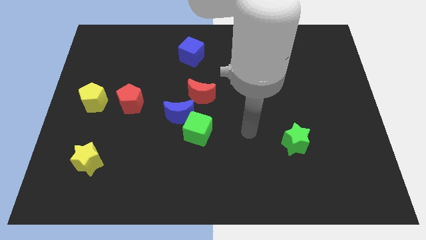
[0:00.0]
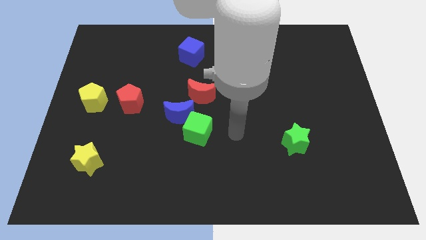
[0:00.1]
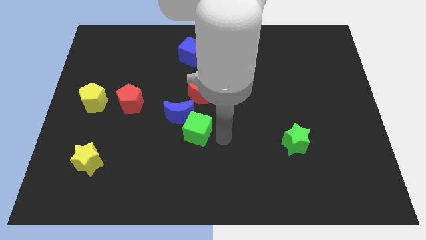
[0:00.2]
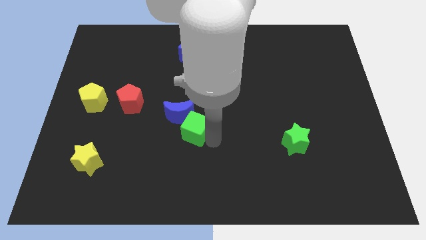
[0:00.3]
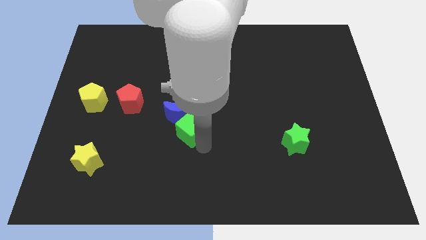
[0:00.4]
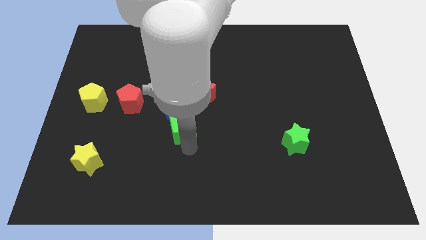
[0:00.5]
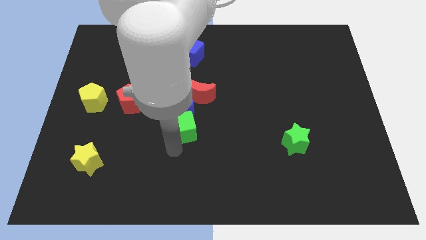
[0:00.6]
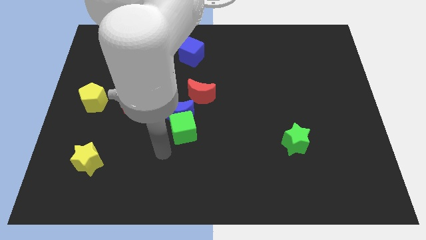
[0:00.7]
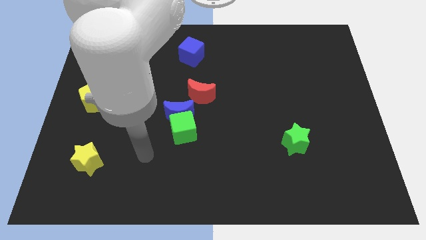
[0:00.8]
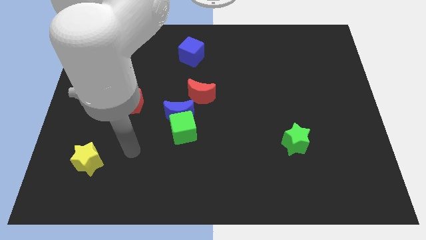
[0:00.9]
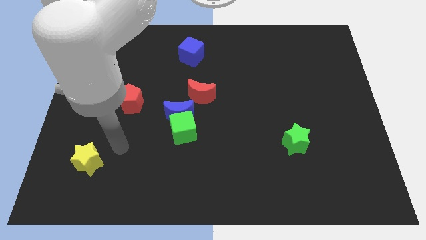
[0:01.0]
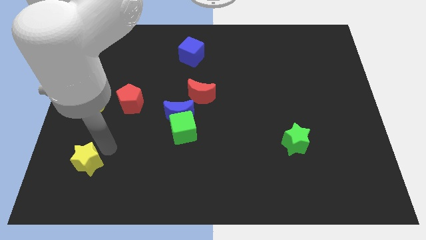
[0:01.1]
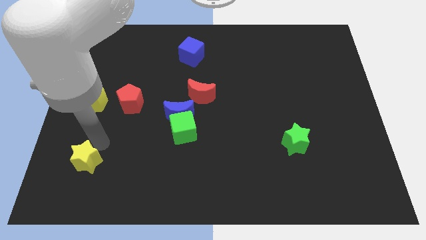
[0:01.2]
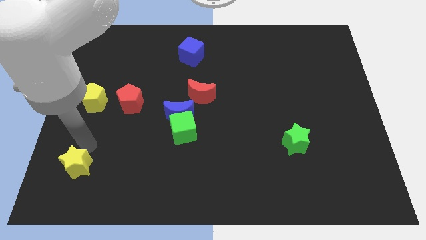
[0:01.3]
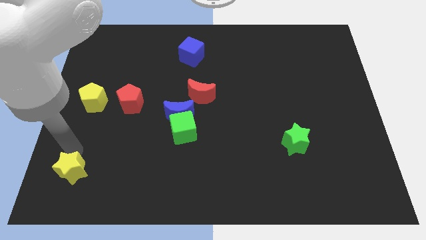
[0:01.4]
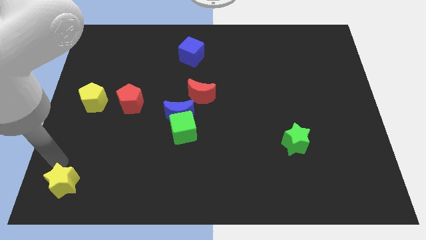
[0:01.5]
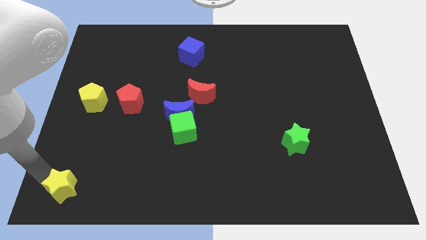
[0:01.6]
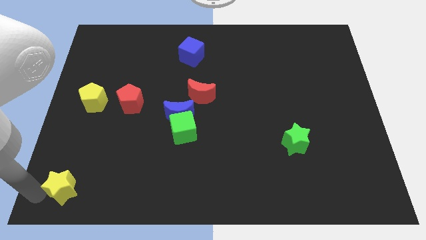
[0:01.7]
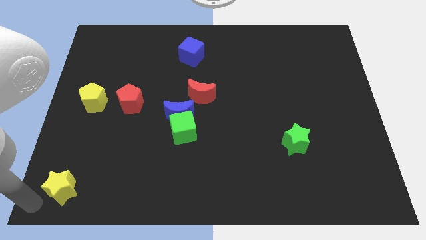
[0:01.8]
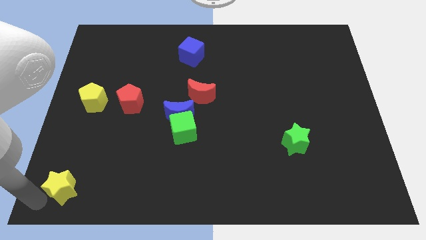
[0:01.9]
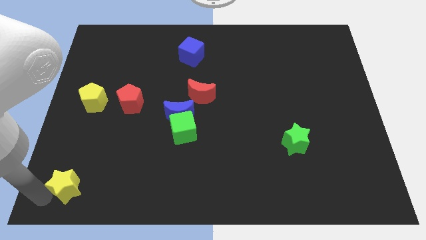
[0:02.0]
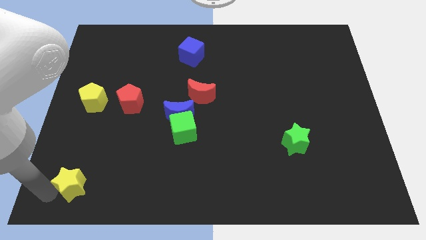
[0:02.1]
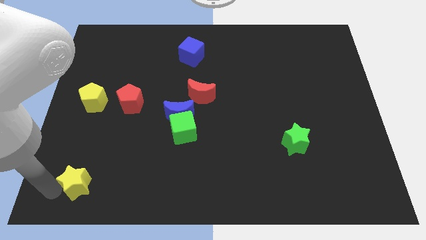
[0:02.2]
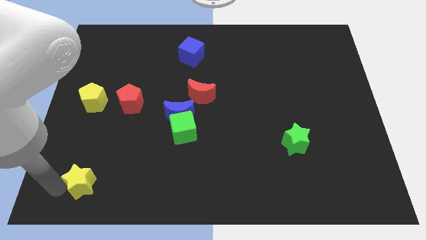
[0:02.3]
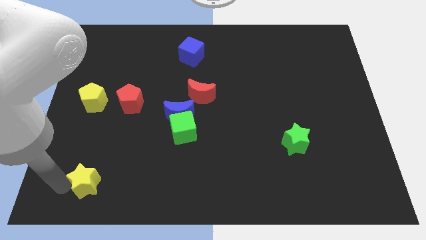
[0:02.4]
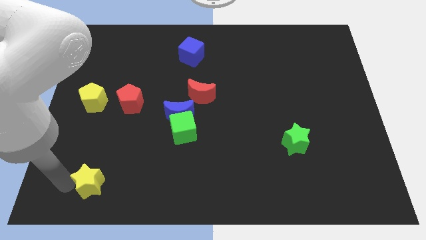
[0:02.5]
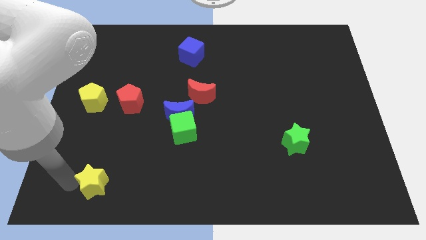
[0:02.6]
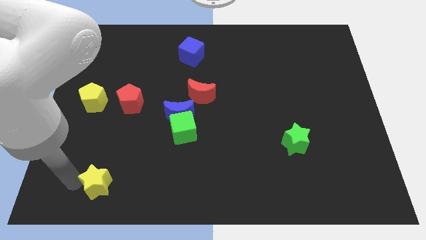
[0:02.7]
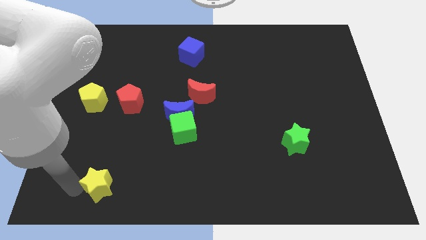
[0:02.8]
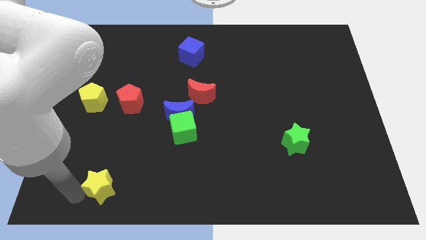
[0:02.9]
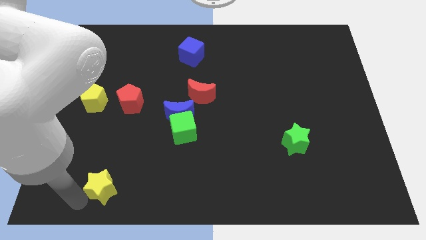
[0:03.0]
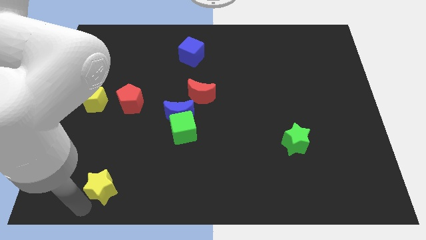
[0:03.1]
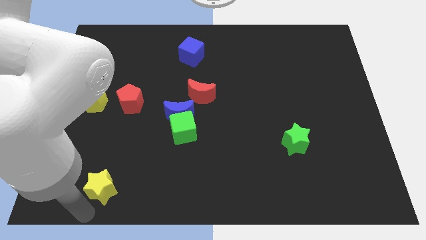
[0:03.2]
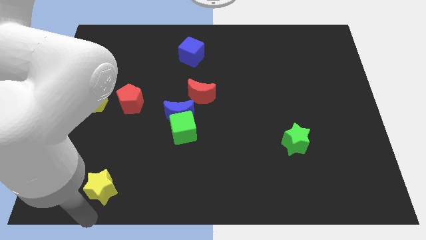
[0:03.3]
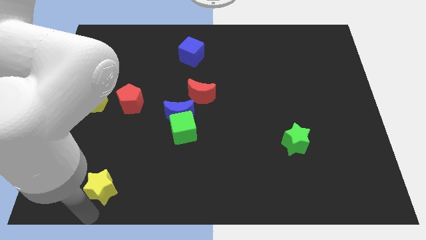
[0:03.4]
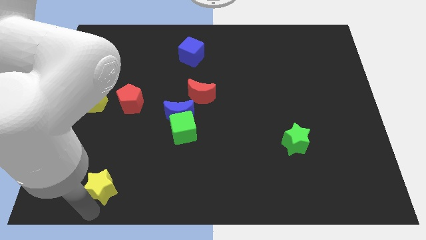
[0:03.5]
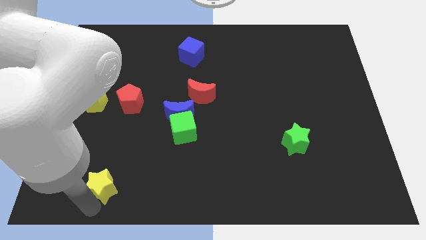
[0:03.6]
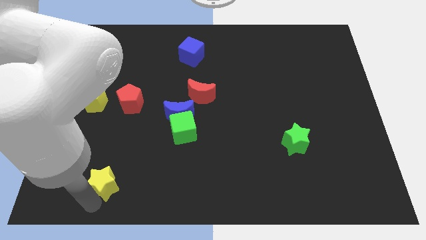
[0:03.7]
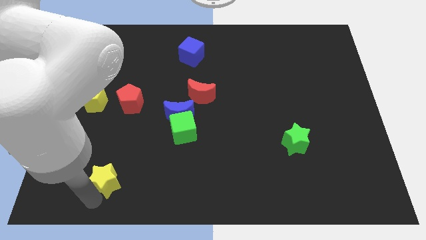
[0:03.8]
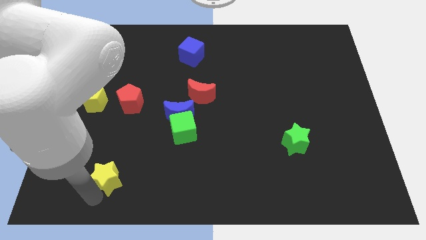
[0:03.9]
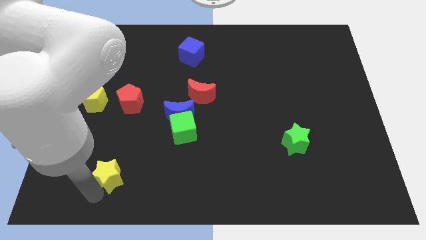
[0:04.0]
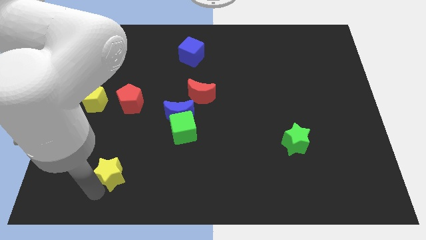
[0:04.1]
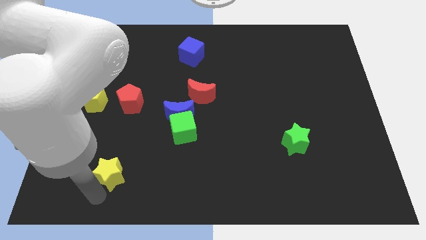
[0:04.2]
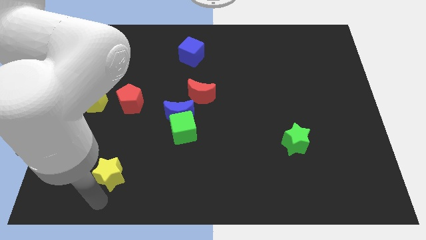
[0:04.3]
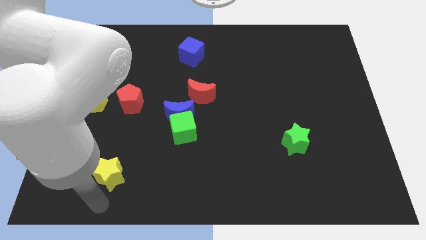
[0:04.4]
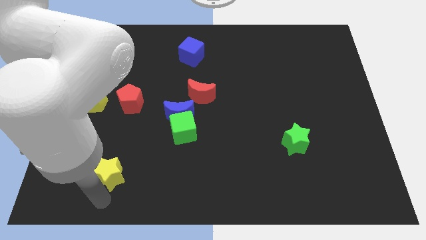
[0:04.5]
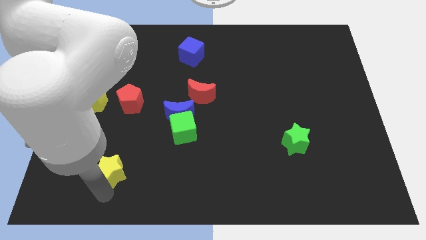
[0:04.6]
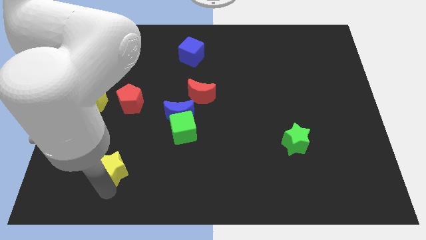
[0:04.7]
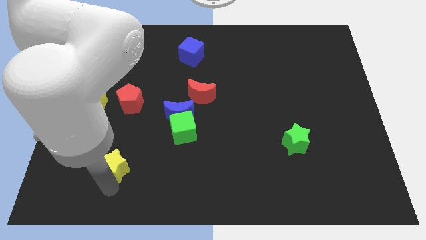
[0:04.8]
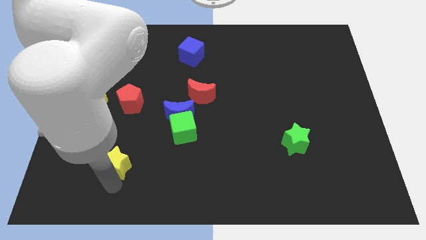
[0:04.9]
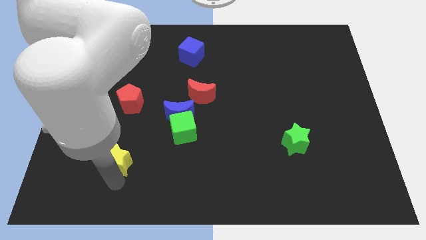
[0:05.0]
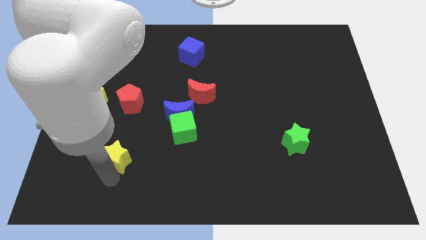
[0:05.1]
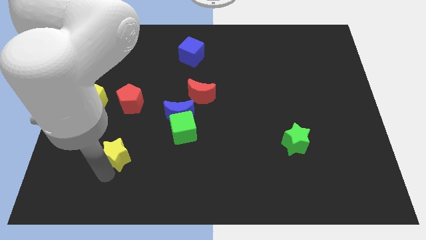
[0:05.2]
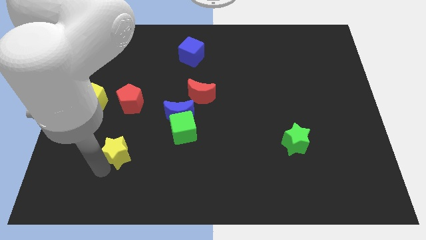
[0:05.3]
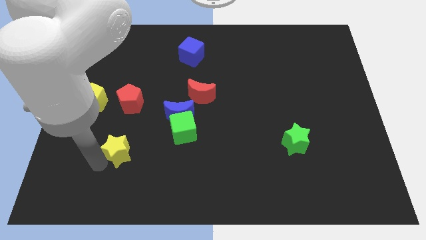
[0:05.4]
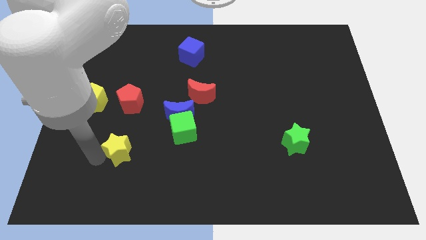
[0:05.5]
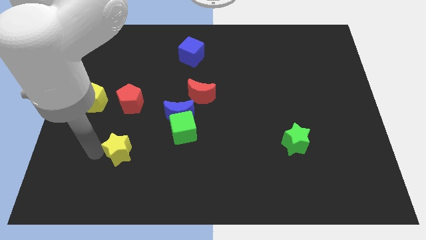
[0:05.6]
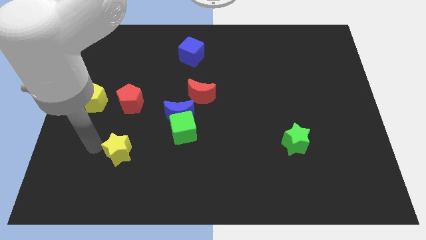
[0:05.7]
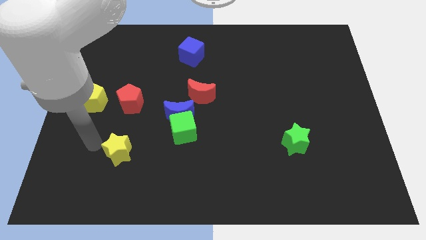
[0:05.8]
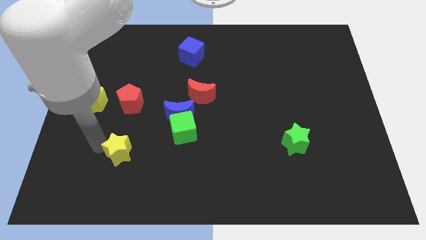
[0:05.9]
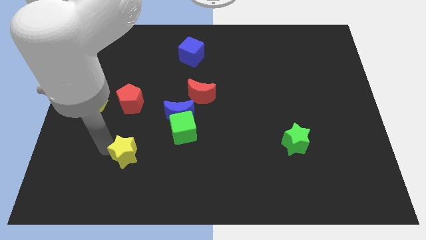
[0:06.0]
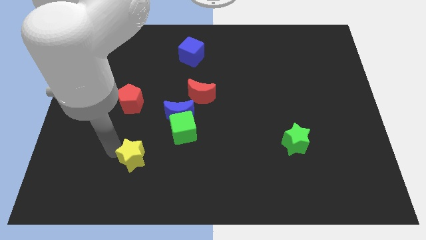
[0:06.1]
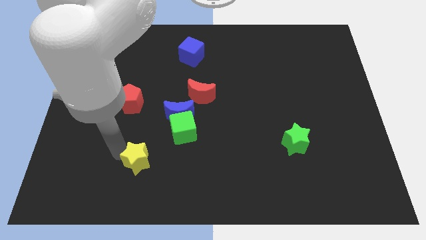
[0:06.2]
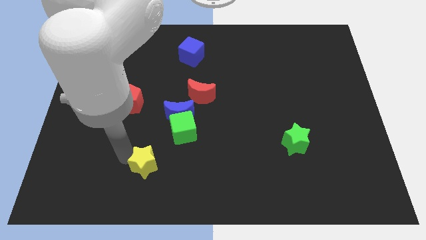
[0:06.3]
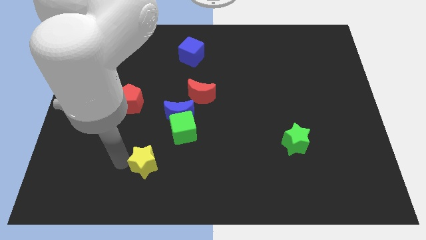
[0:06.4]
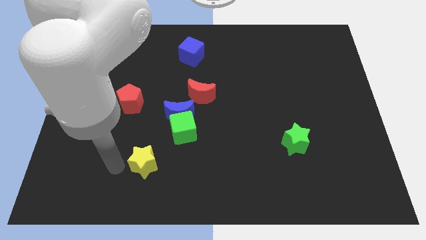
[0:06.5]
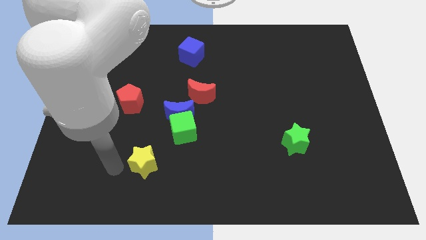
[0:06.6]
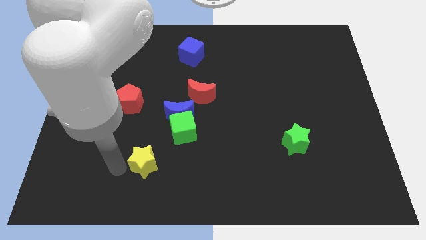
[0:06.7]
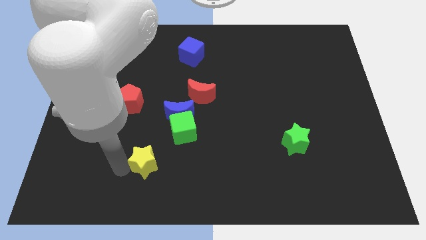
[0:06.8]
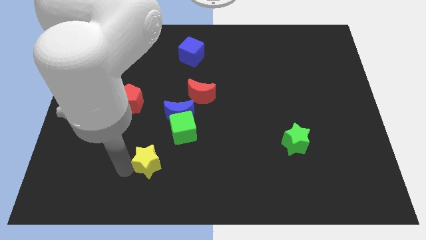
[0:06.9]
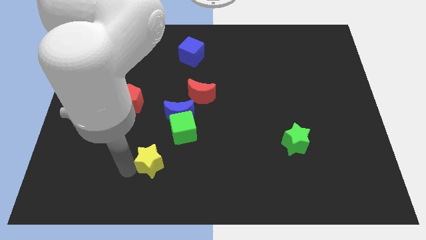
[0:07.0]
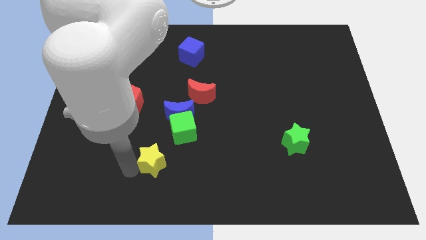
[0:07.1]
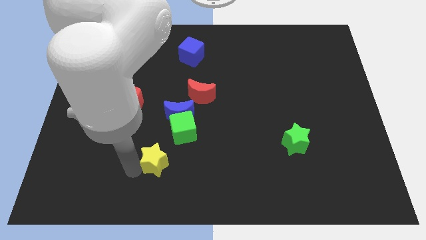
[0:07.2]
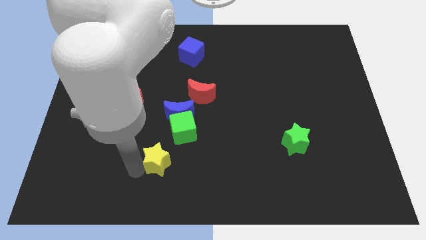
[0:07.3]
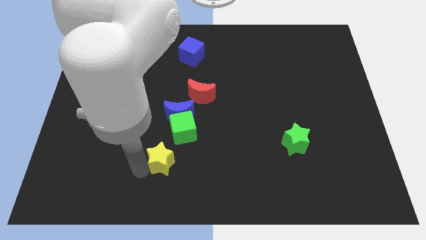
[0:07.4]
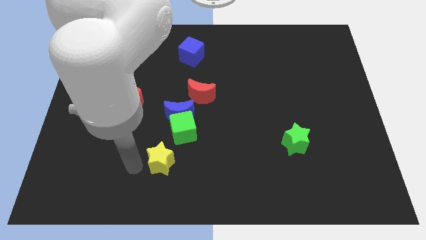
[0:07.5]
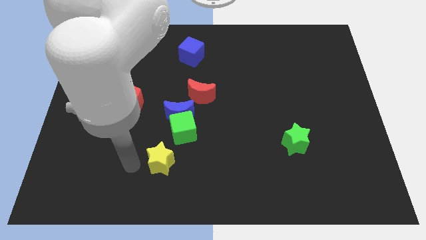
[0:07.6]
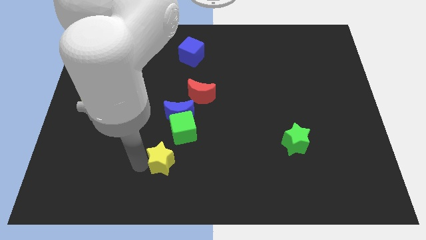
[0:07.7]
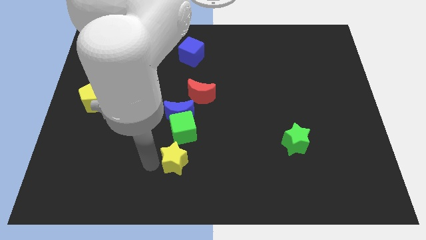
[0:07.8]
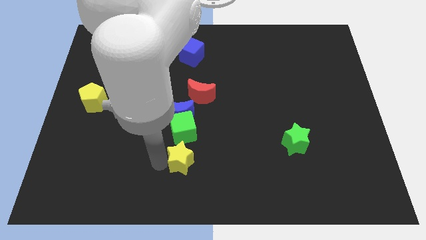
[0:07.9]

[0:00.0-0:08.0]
push the yellow star right
